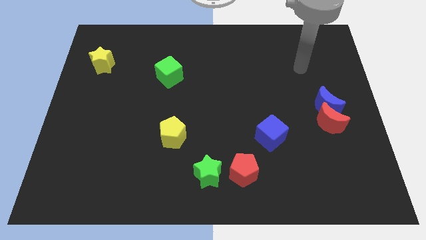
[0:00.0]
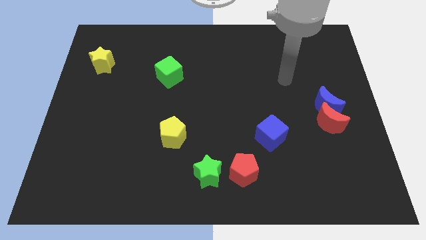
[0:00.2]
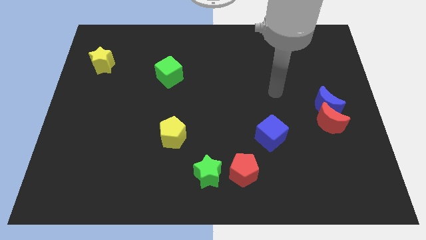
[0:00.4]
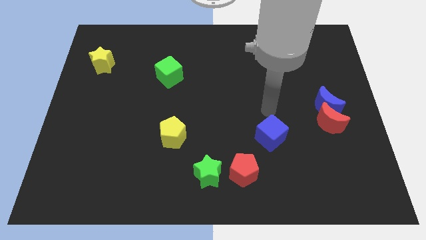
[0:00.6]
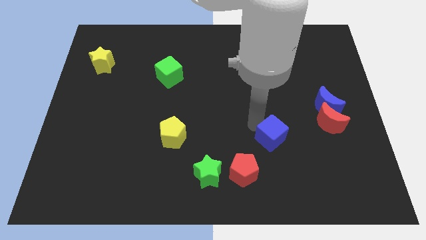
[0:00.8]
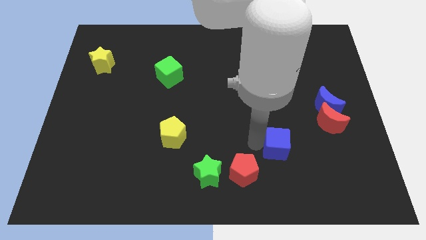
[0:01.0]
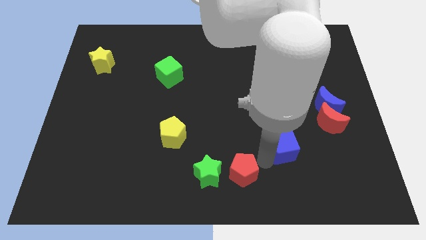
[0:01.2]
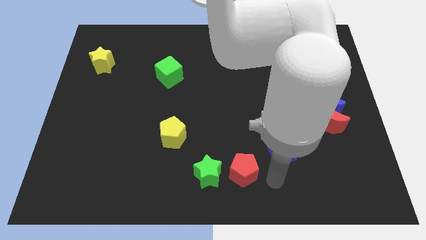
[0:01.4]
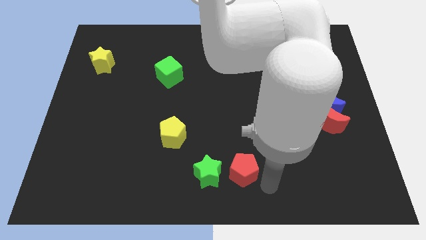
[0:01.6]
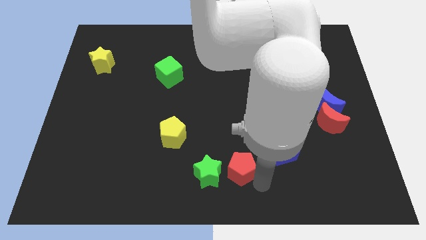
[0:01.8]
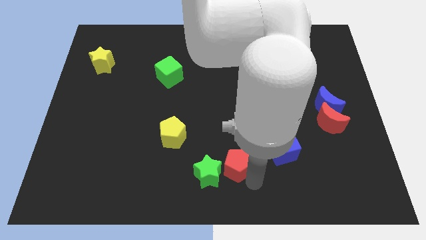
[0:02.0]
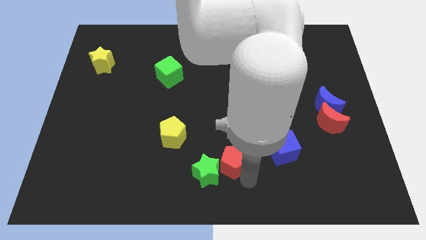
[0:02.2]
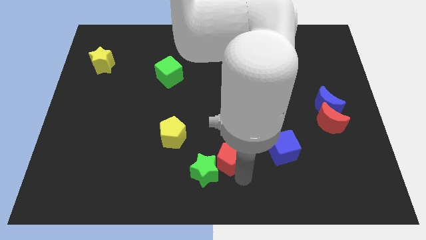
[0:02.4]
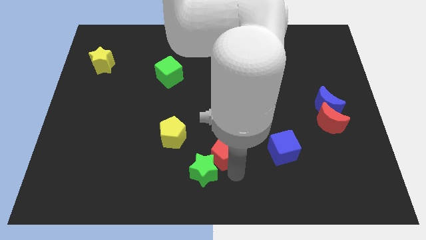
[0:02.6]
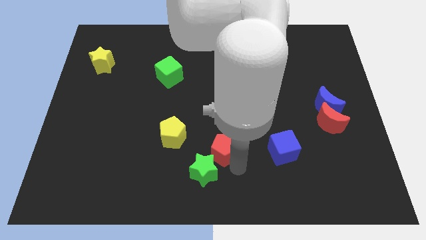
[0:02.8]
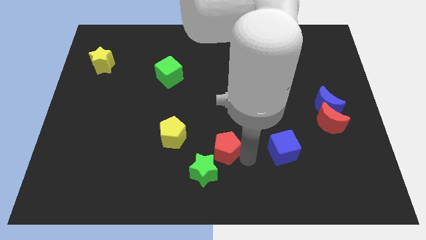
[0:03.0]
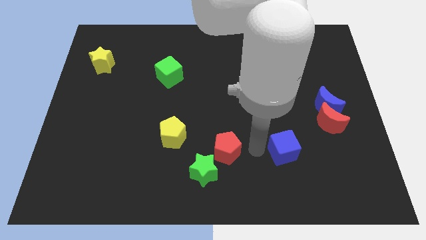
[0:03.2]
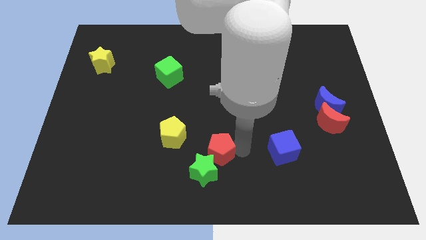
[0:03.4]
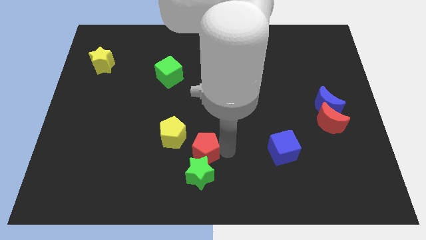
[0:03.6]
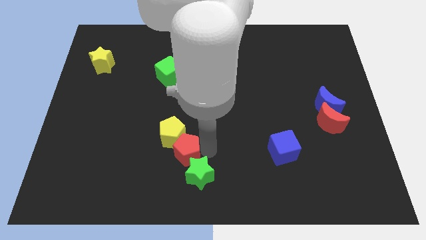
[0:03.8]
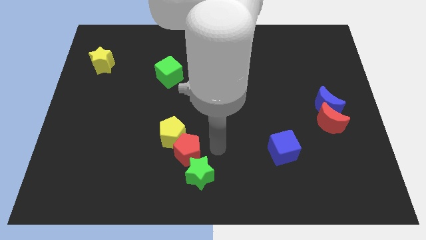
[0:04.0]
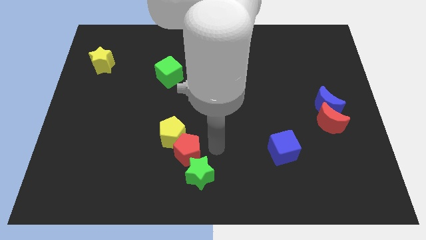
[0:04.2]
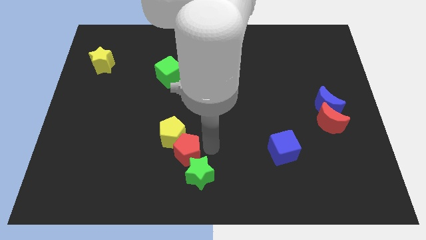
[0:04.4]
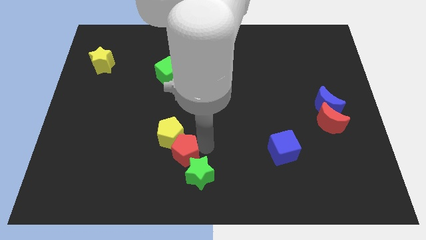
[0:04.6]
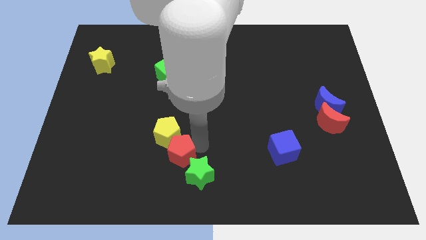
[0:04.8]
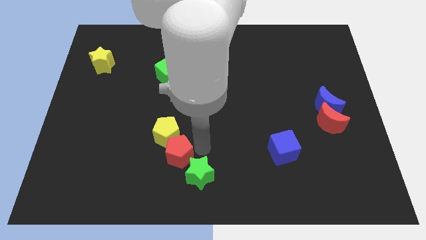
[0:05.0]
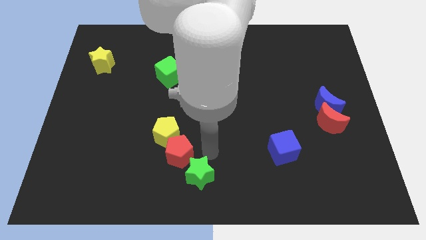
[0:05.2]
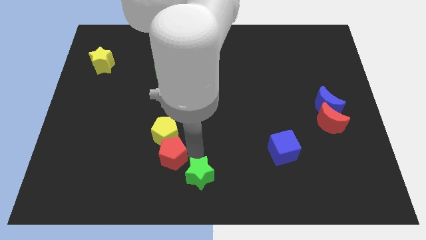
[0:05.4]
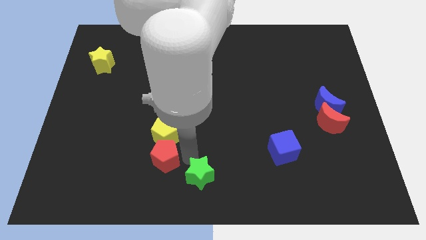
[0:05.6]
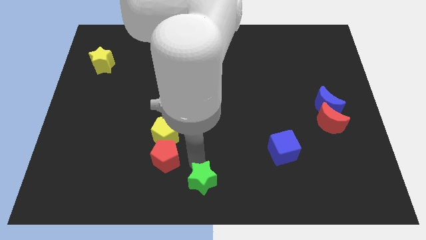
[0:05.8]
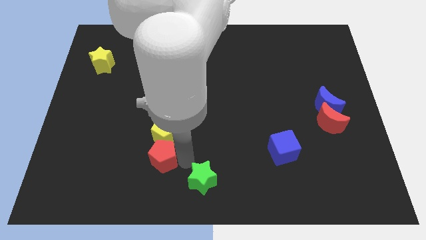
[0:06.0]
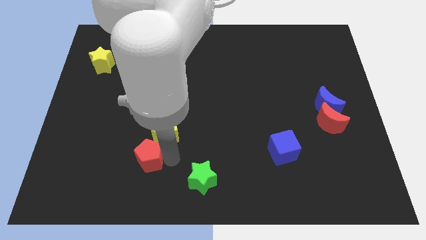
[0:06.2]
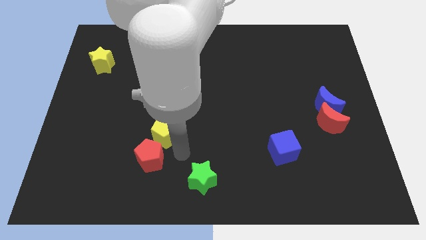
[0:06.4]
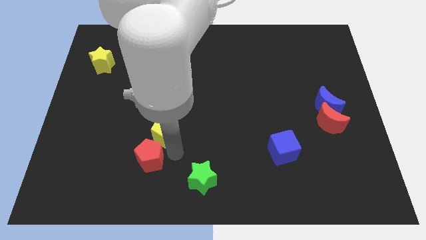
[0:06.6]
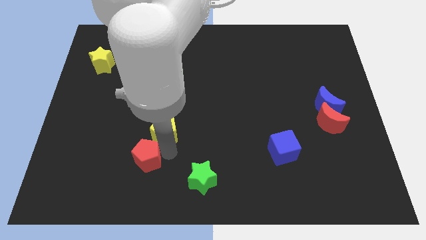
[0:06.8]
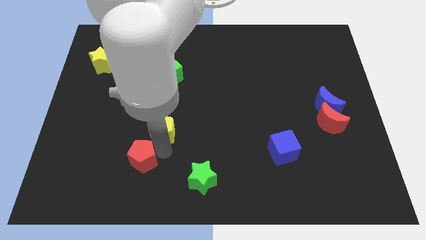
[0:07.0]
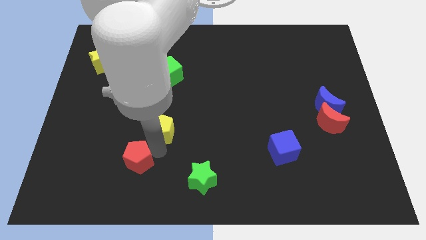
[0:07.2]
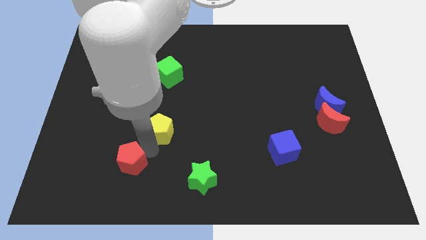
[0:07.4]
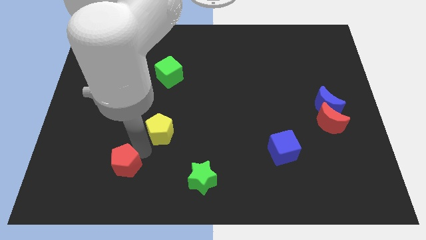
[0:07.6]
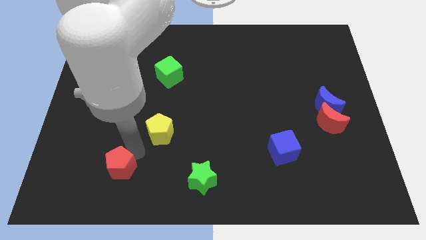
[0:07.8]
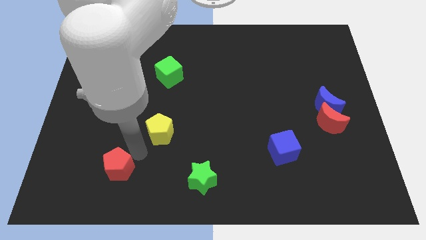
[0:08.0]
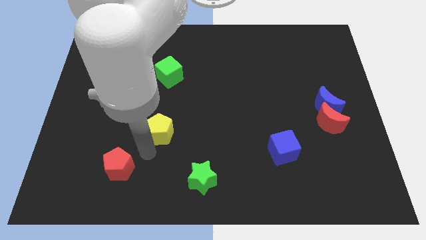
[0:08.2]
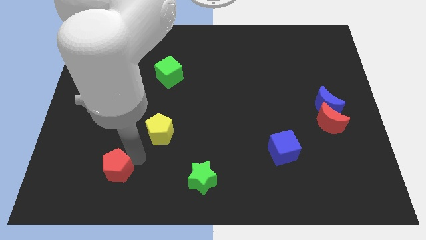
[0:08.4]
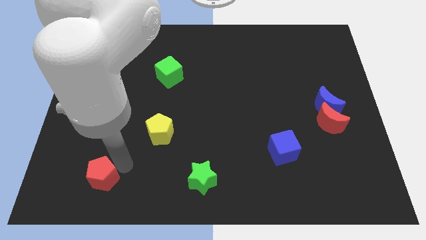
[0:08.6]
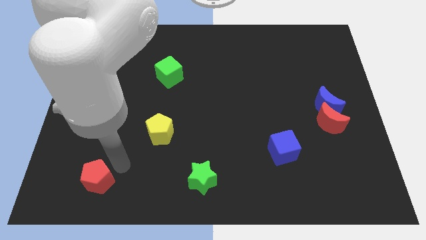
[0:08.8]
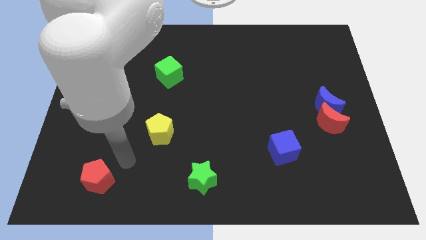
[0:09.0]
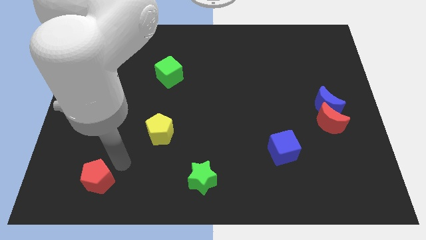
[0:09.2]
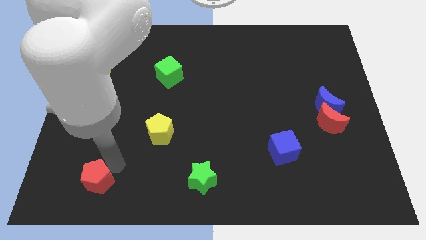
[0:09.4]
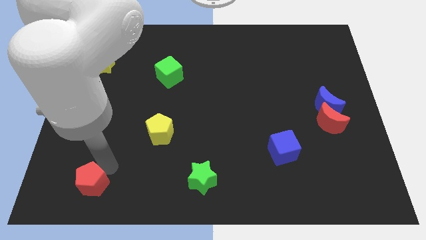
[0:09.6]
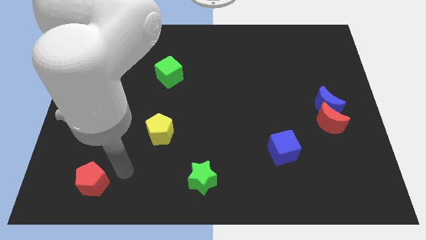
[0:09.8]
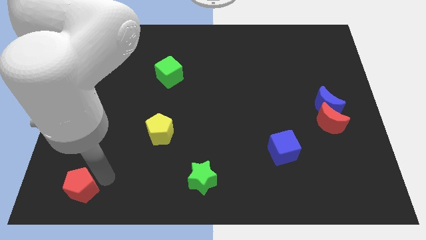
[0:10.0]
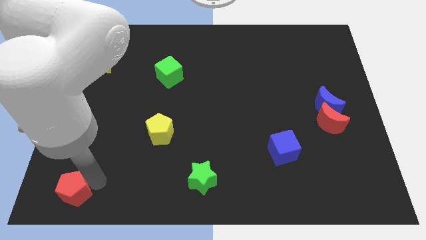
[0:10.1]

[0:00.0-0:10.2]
move the red pentagon to the lower left corner

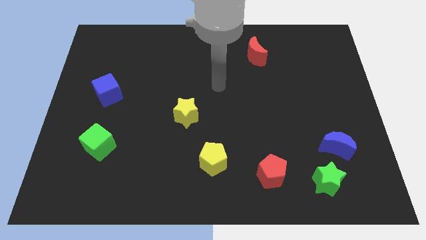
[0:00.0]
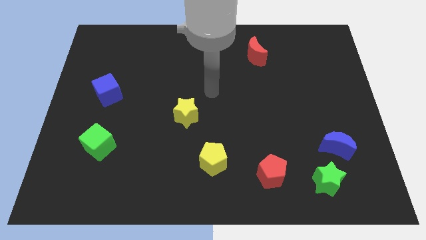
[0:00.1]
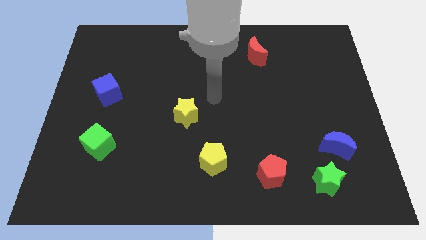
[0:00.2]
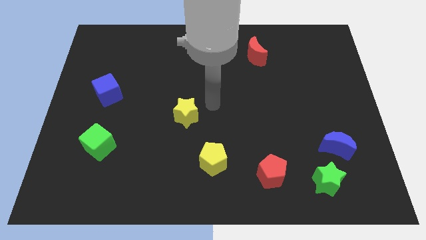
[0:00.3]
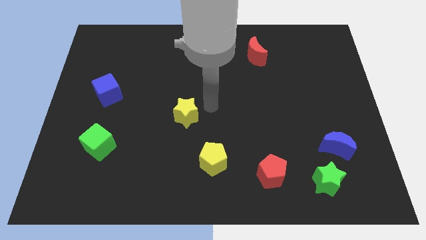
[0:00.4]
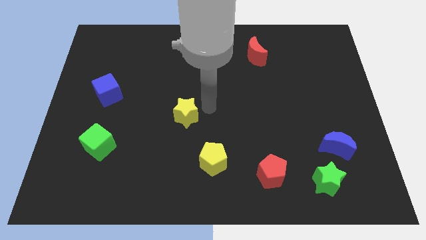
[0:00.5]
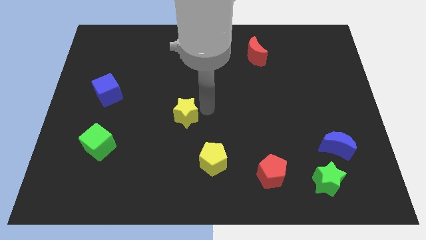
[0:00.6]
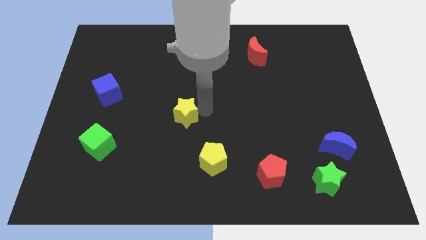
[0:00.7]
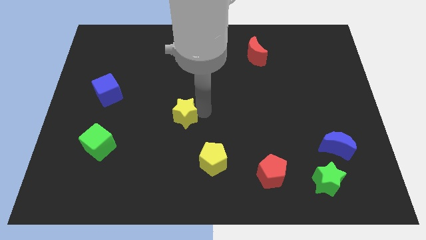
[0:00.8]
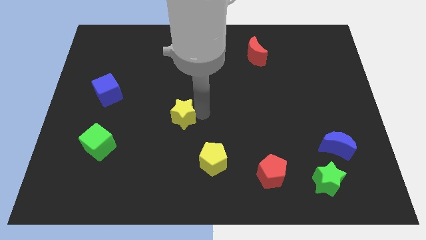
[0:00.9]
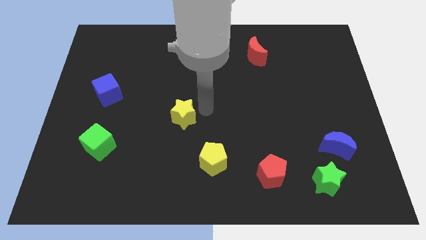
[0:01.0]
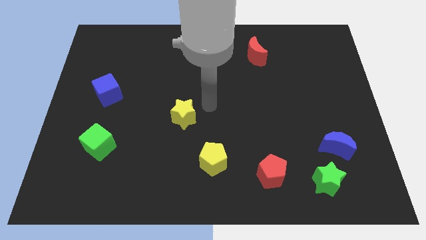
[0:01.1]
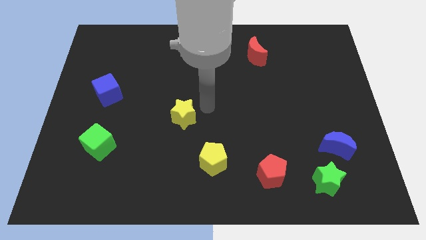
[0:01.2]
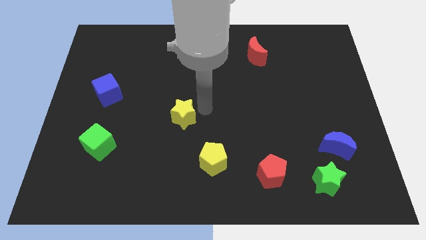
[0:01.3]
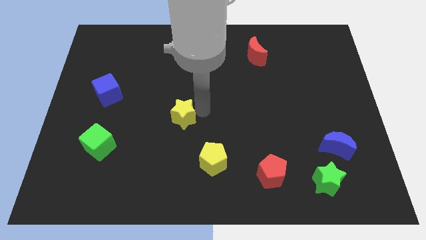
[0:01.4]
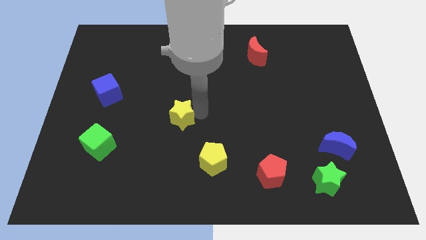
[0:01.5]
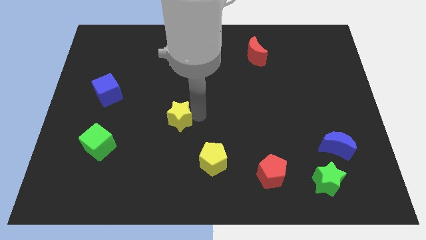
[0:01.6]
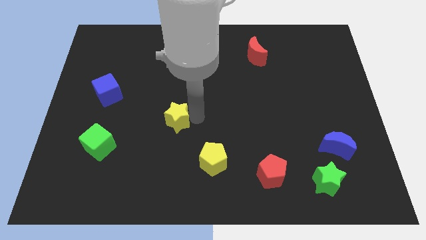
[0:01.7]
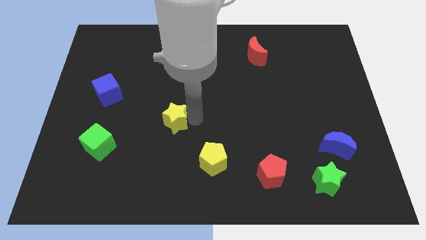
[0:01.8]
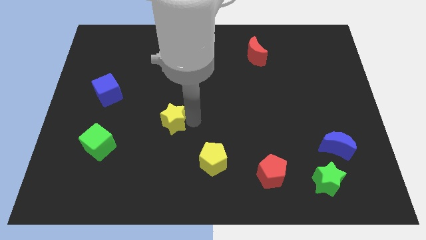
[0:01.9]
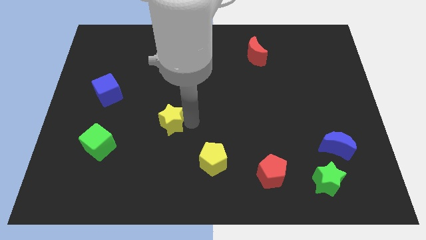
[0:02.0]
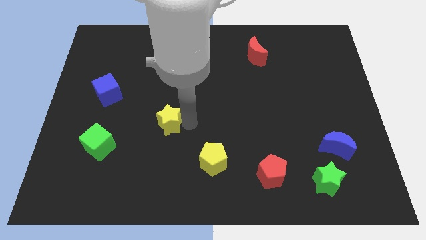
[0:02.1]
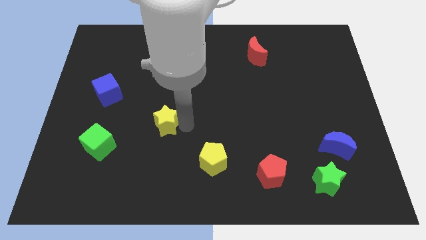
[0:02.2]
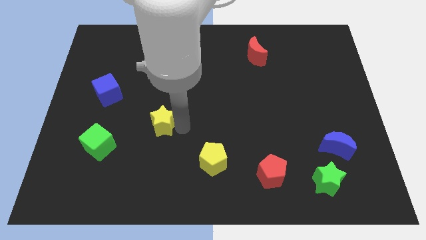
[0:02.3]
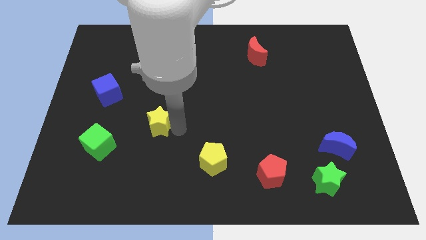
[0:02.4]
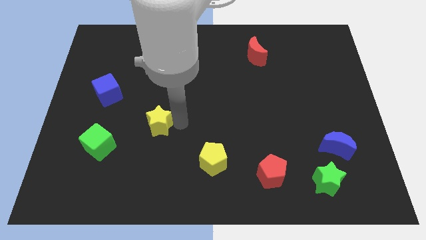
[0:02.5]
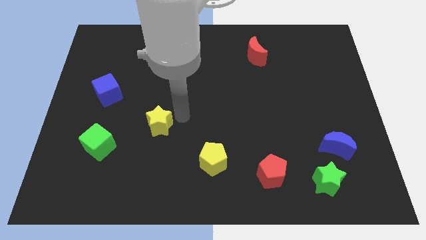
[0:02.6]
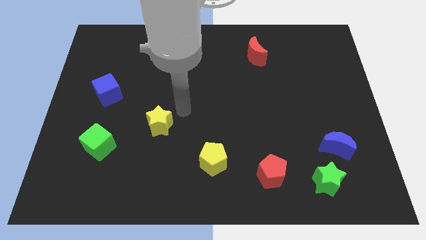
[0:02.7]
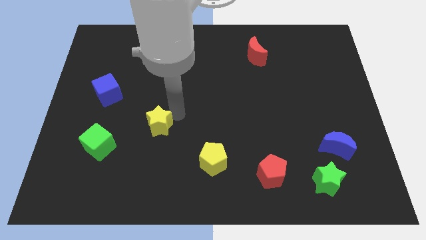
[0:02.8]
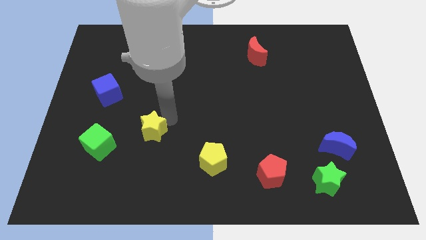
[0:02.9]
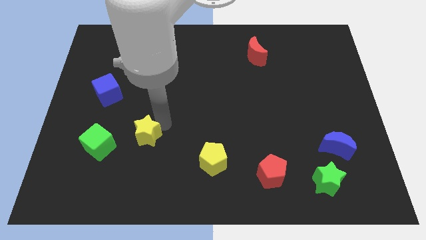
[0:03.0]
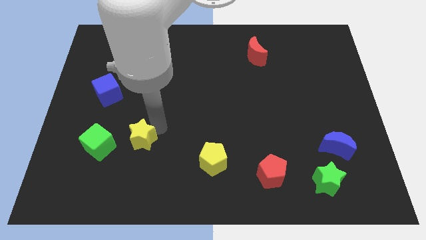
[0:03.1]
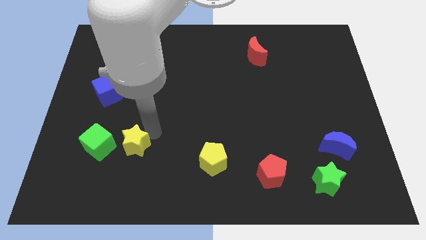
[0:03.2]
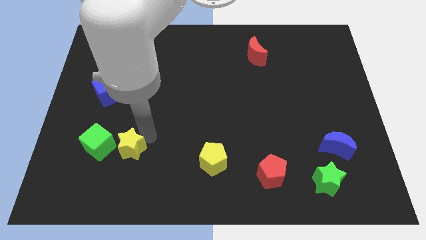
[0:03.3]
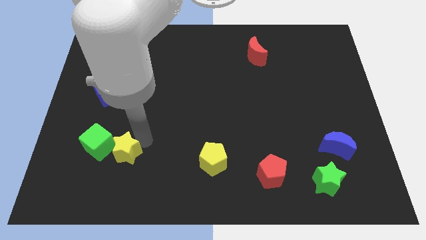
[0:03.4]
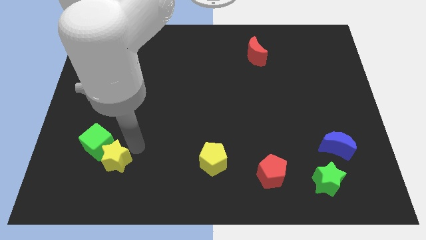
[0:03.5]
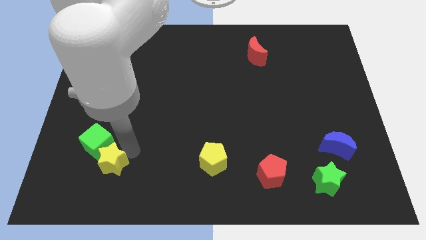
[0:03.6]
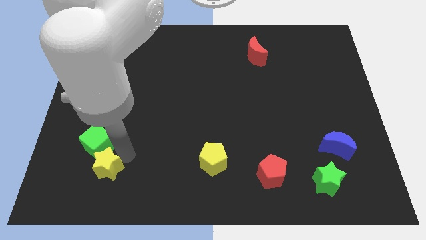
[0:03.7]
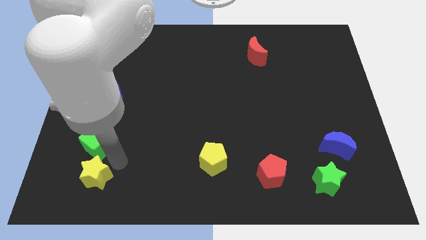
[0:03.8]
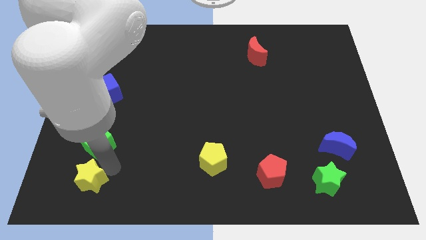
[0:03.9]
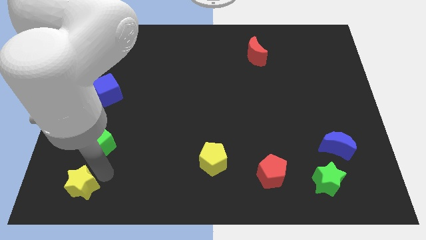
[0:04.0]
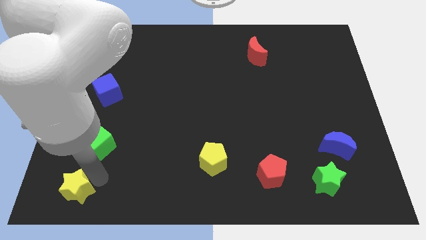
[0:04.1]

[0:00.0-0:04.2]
move the yellow star to the bottom left
